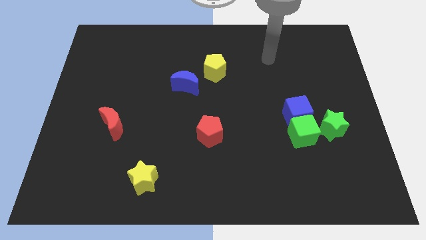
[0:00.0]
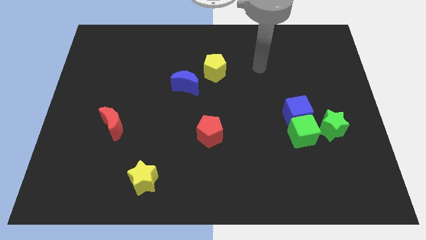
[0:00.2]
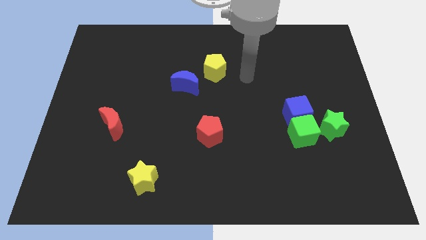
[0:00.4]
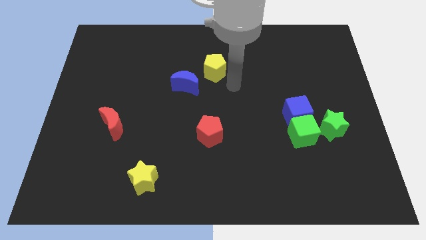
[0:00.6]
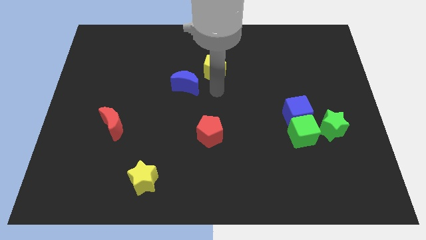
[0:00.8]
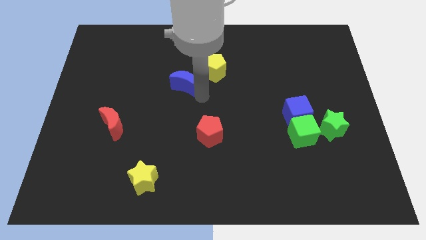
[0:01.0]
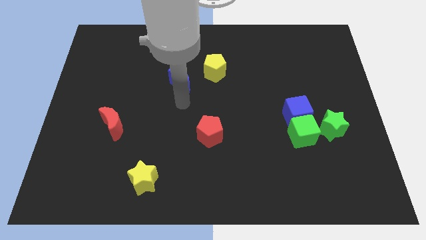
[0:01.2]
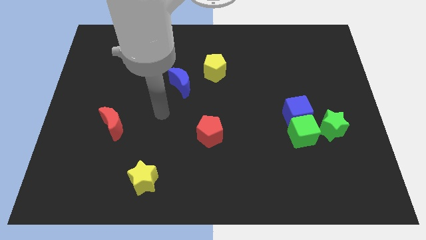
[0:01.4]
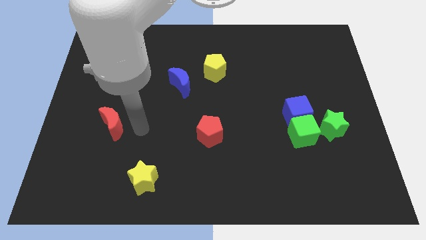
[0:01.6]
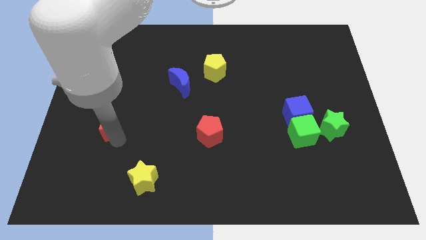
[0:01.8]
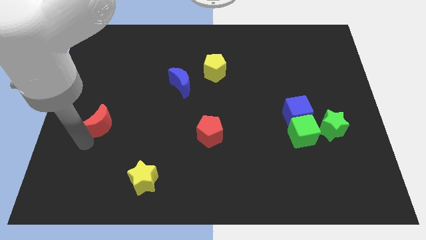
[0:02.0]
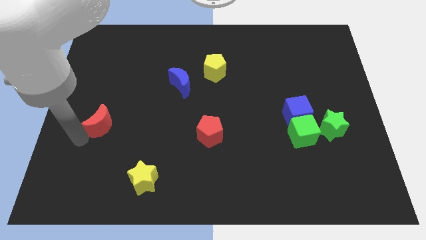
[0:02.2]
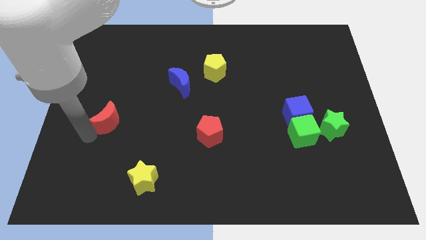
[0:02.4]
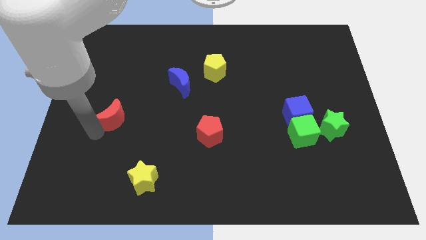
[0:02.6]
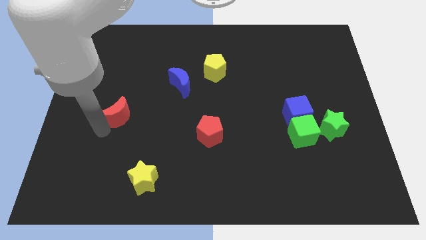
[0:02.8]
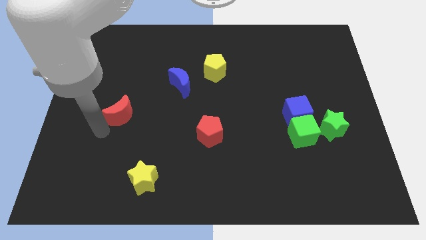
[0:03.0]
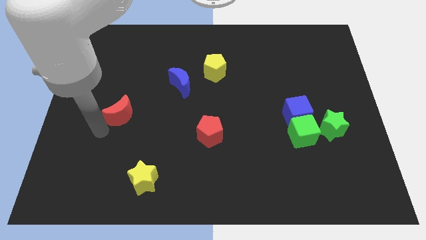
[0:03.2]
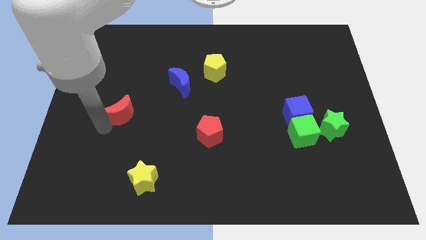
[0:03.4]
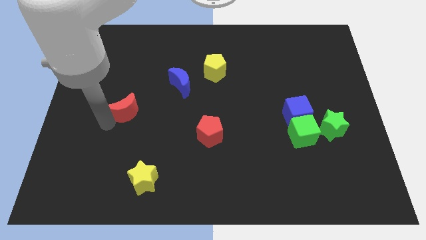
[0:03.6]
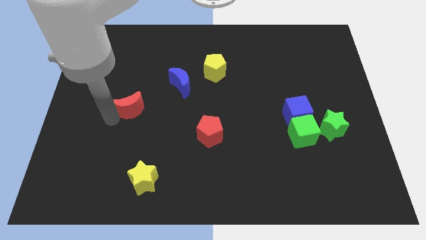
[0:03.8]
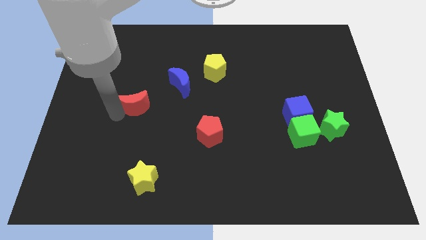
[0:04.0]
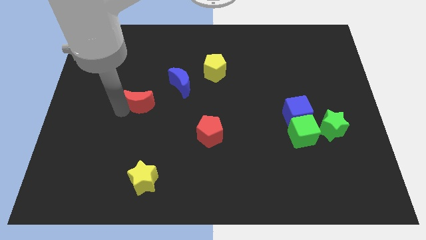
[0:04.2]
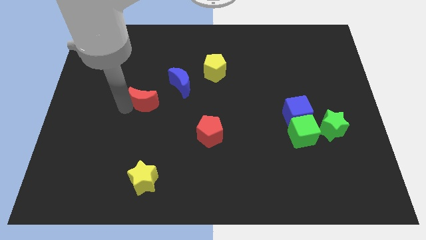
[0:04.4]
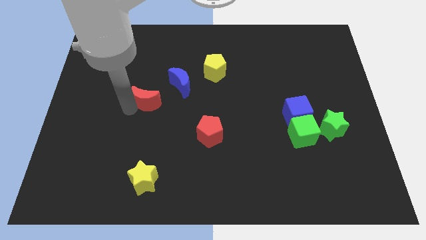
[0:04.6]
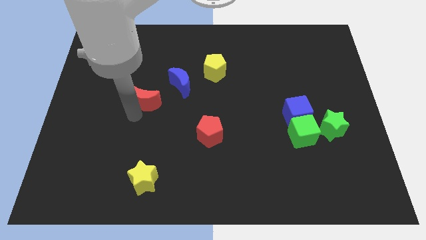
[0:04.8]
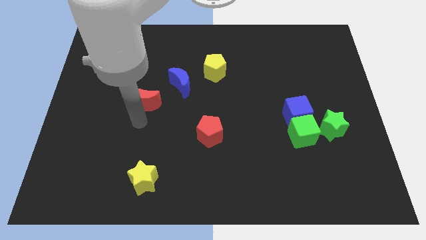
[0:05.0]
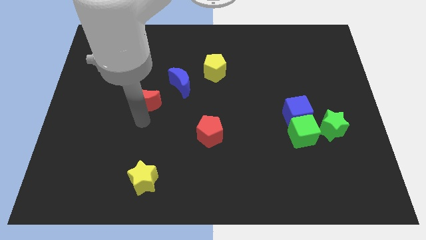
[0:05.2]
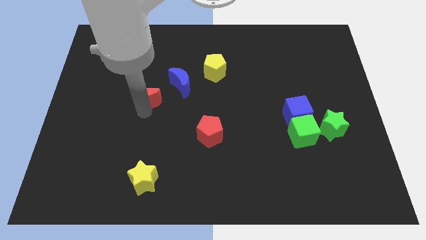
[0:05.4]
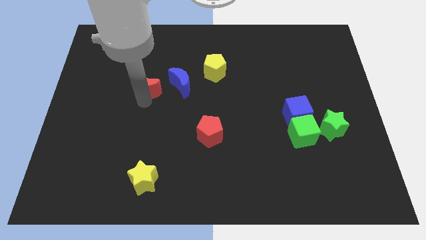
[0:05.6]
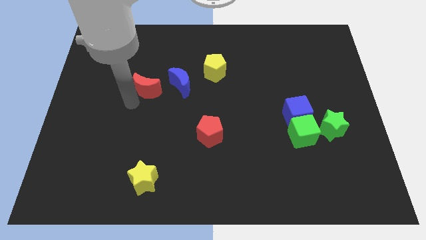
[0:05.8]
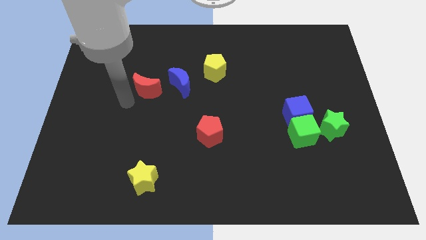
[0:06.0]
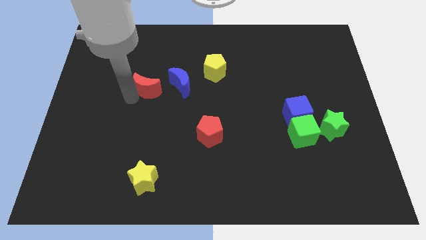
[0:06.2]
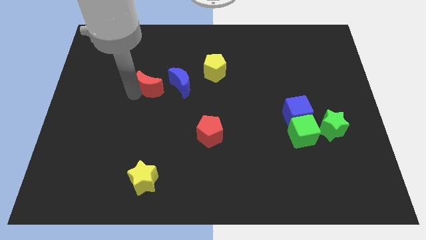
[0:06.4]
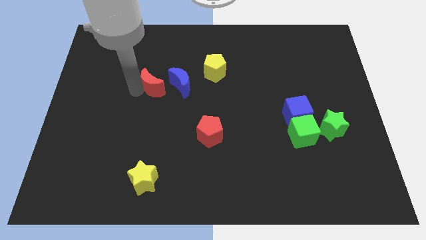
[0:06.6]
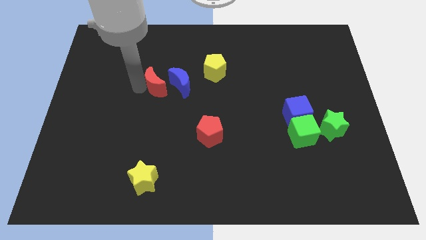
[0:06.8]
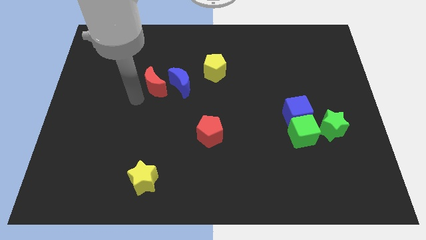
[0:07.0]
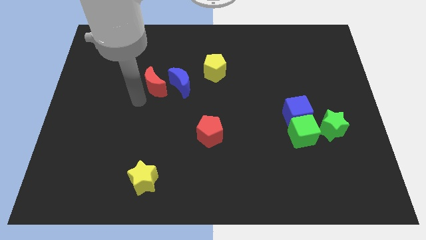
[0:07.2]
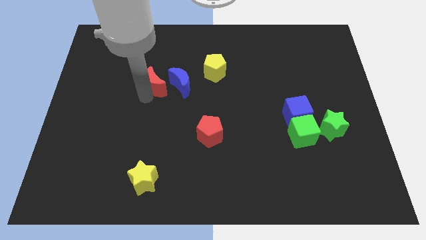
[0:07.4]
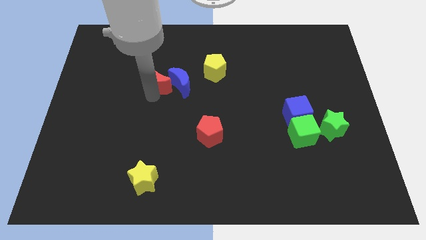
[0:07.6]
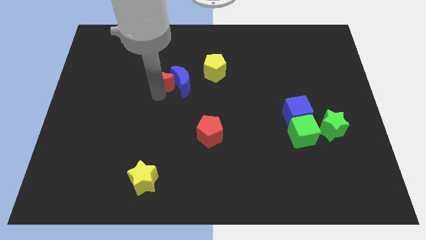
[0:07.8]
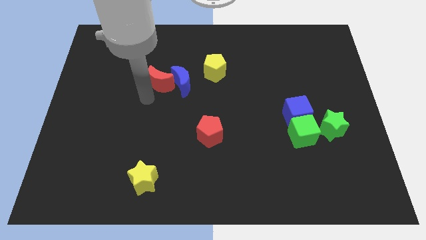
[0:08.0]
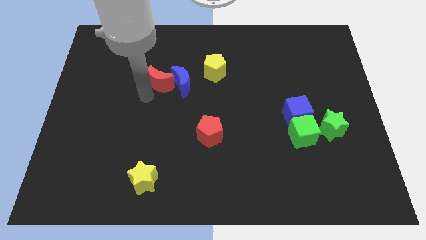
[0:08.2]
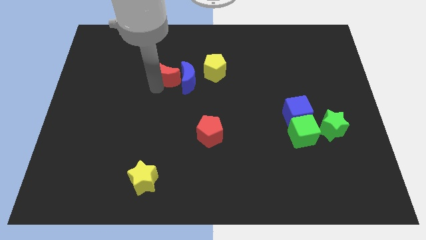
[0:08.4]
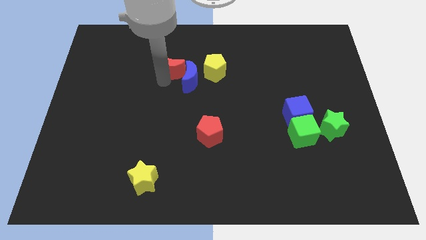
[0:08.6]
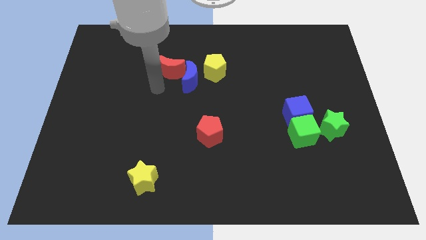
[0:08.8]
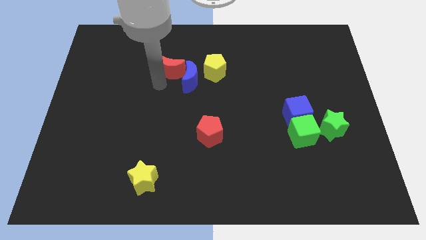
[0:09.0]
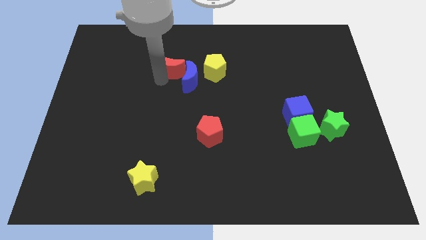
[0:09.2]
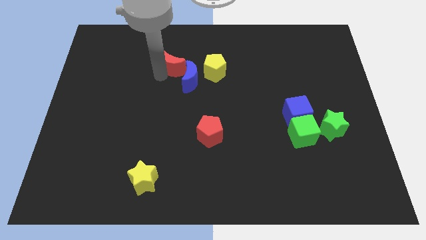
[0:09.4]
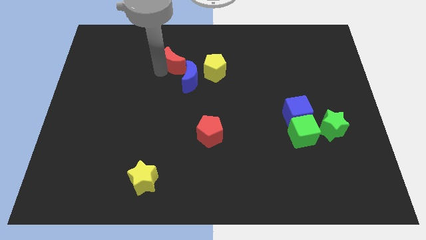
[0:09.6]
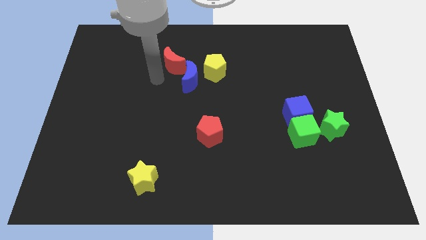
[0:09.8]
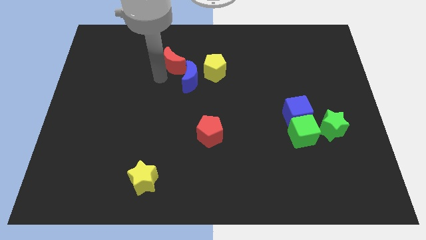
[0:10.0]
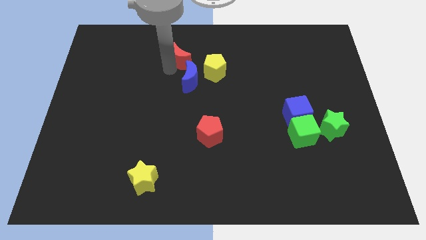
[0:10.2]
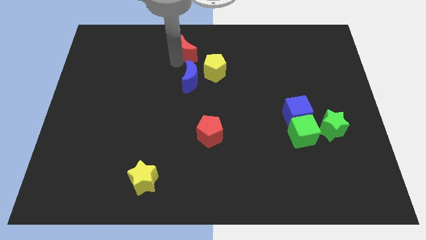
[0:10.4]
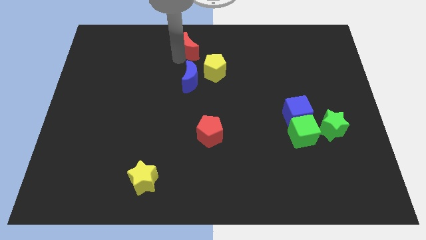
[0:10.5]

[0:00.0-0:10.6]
push the red moon to the top side
